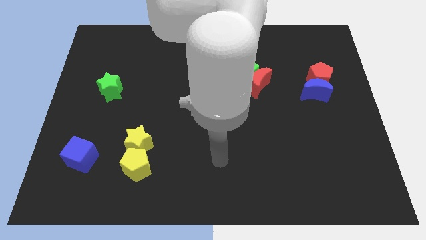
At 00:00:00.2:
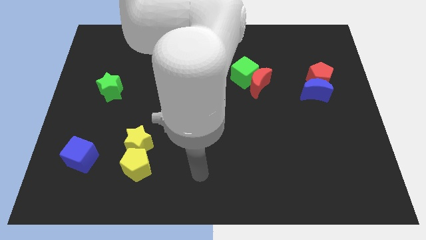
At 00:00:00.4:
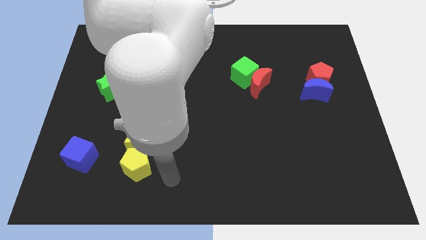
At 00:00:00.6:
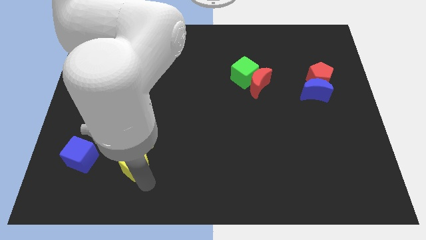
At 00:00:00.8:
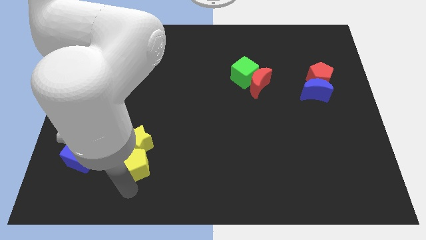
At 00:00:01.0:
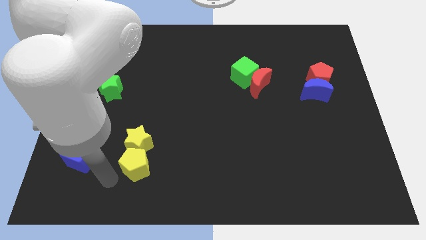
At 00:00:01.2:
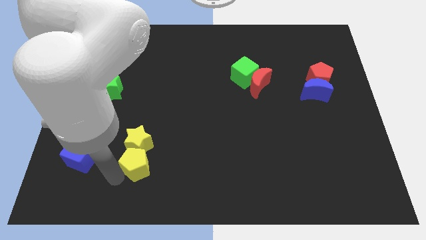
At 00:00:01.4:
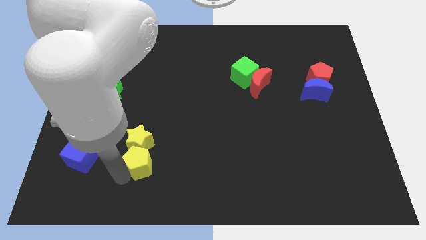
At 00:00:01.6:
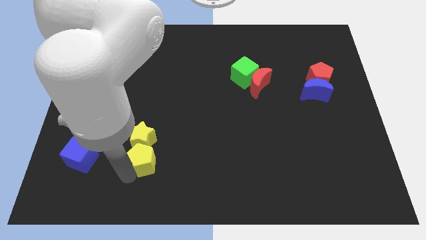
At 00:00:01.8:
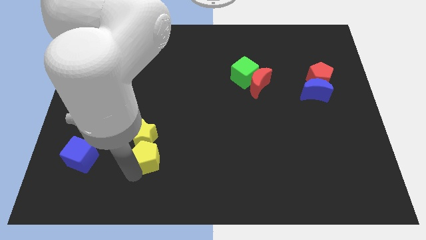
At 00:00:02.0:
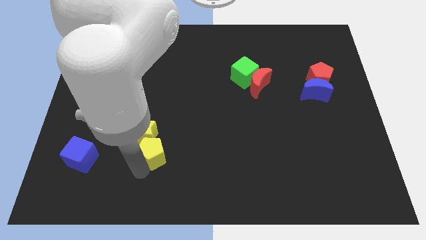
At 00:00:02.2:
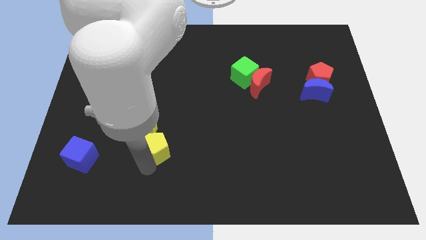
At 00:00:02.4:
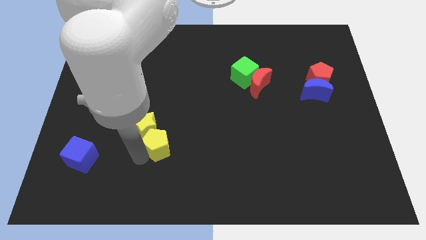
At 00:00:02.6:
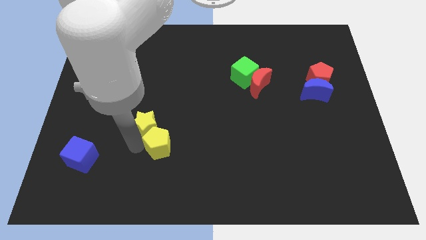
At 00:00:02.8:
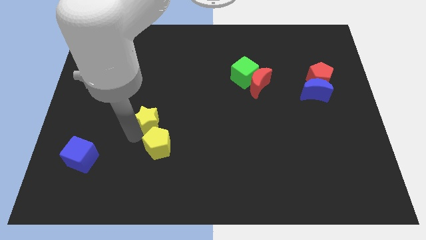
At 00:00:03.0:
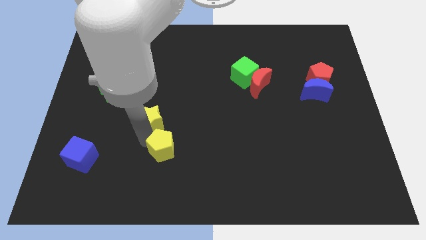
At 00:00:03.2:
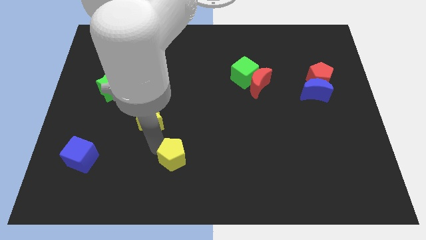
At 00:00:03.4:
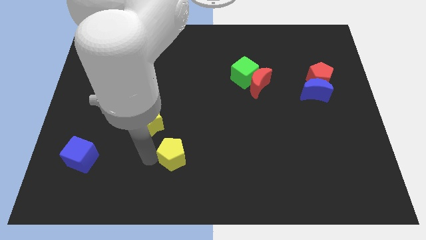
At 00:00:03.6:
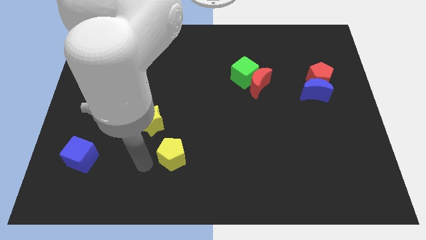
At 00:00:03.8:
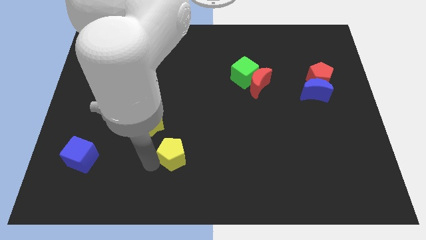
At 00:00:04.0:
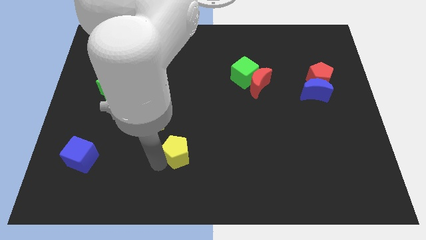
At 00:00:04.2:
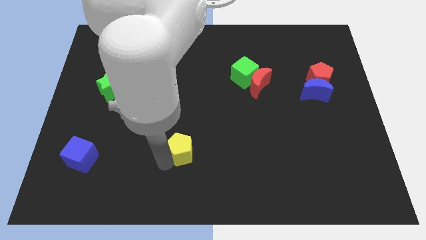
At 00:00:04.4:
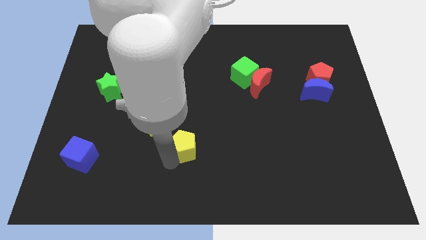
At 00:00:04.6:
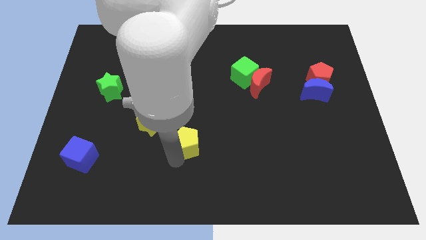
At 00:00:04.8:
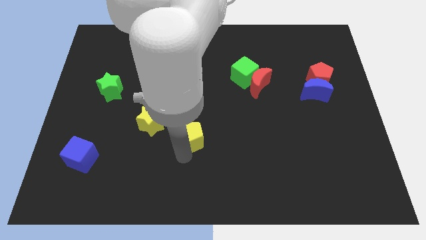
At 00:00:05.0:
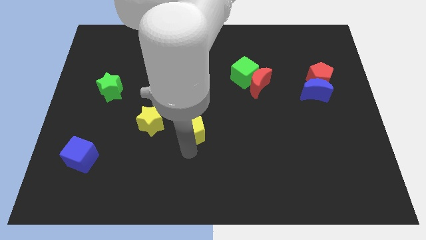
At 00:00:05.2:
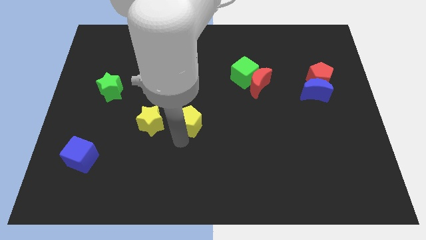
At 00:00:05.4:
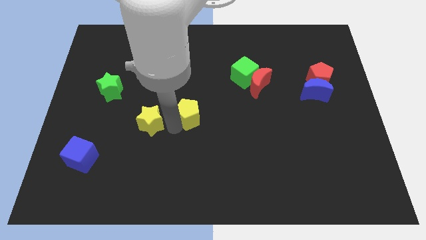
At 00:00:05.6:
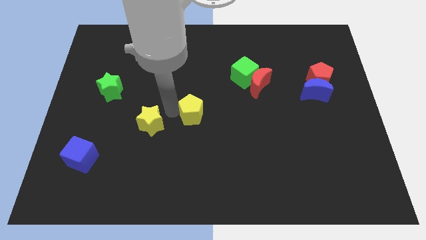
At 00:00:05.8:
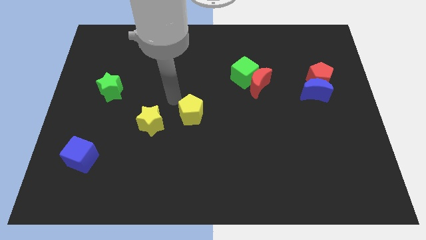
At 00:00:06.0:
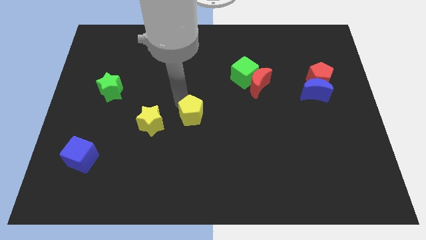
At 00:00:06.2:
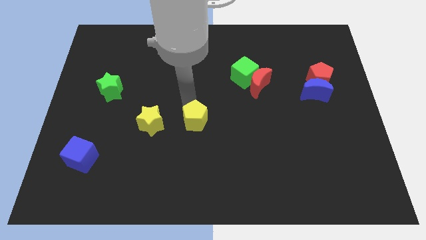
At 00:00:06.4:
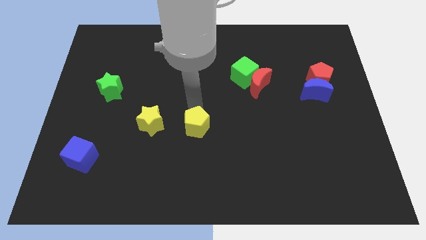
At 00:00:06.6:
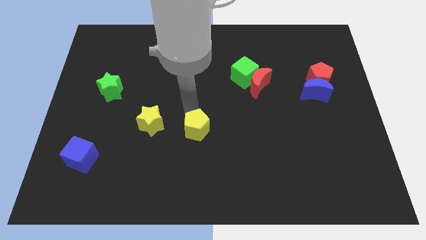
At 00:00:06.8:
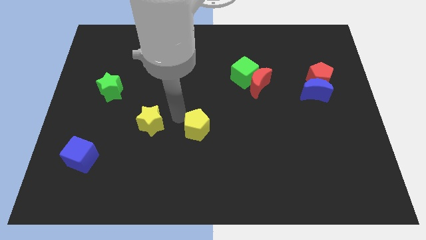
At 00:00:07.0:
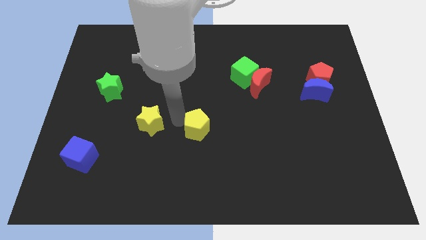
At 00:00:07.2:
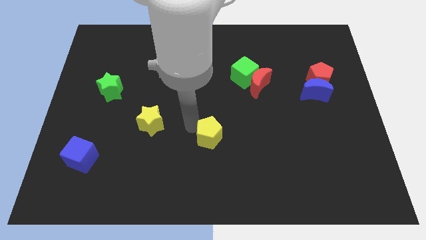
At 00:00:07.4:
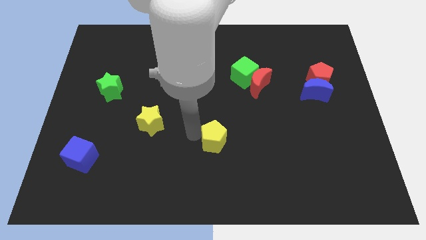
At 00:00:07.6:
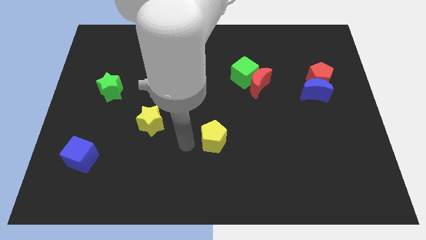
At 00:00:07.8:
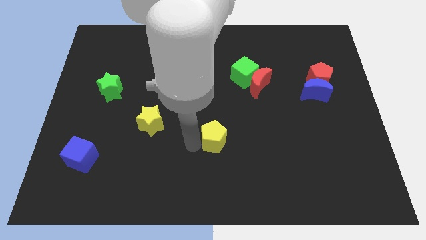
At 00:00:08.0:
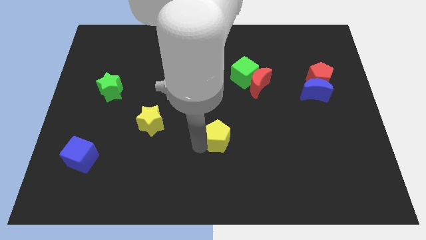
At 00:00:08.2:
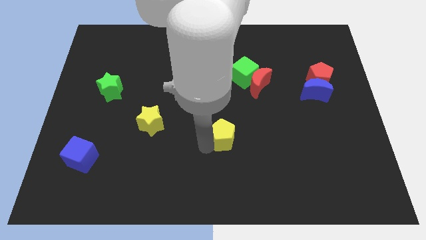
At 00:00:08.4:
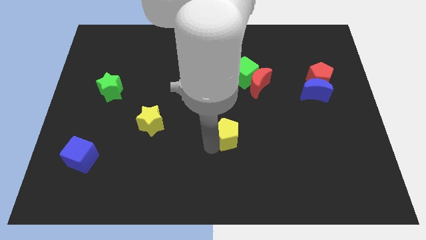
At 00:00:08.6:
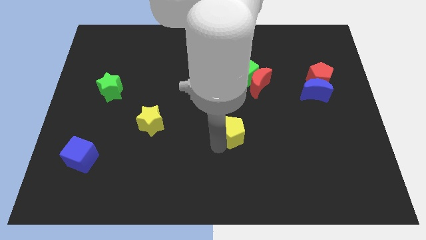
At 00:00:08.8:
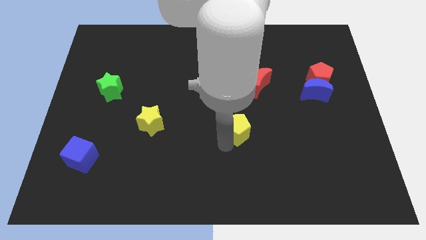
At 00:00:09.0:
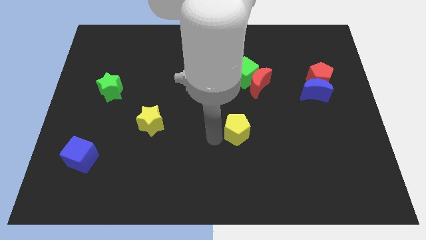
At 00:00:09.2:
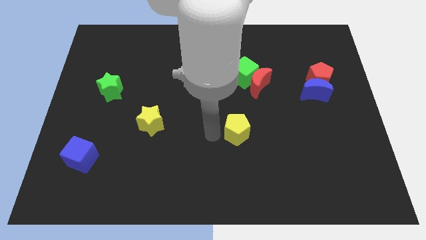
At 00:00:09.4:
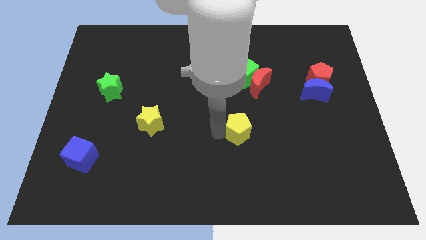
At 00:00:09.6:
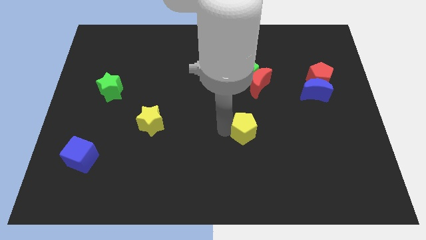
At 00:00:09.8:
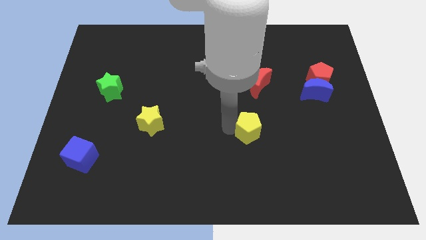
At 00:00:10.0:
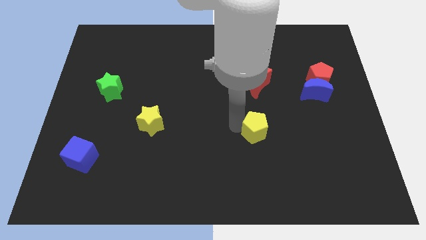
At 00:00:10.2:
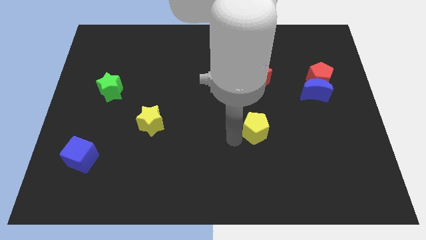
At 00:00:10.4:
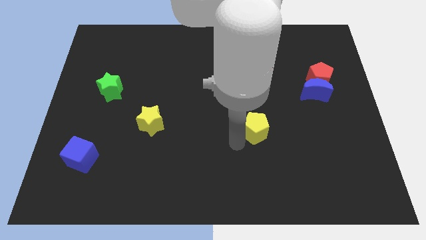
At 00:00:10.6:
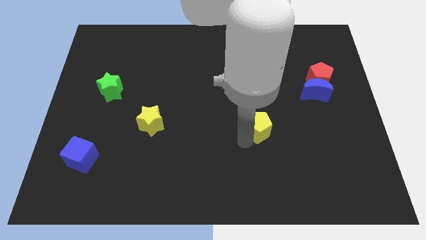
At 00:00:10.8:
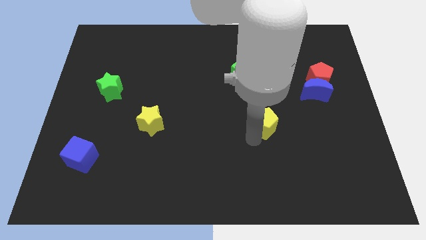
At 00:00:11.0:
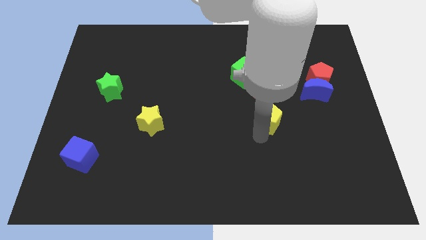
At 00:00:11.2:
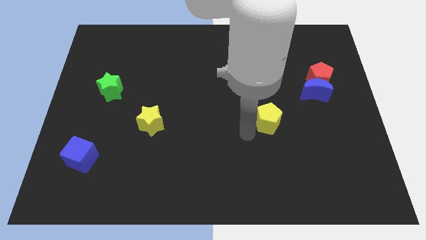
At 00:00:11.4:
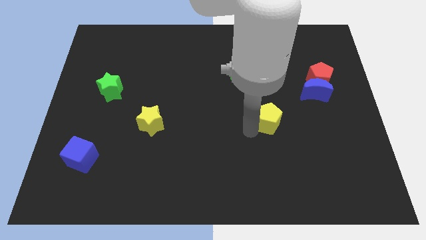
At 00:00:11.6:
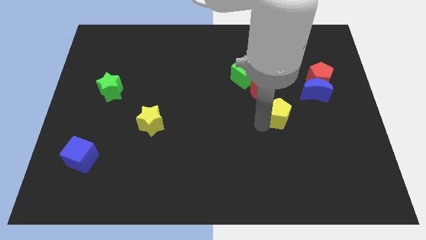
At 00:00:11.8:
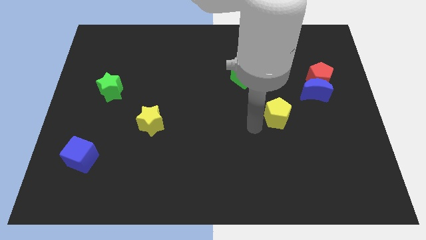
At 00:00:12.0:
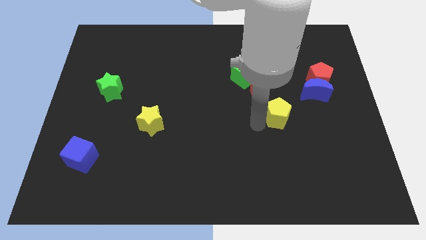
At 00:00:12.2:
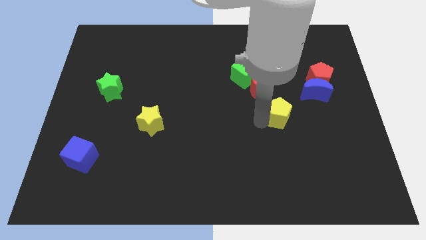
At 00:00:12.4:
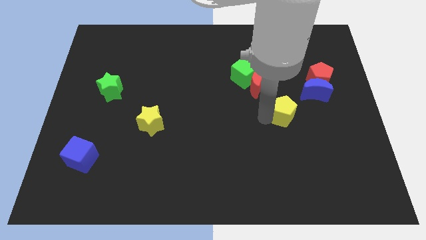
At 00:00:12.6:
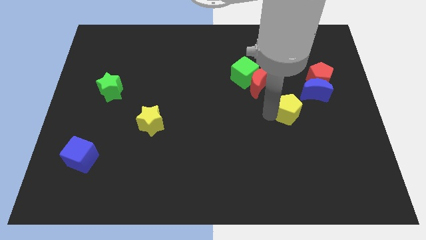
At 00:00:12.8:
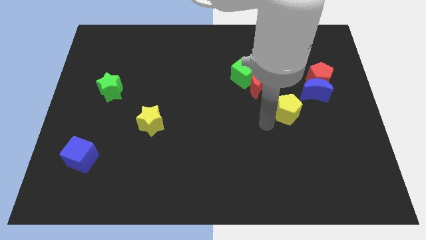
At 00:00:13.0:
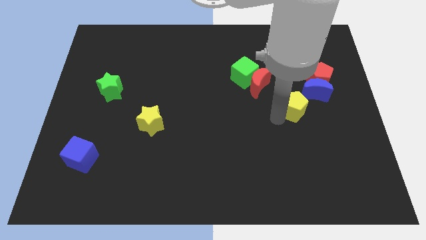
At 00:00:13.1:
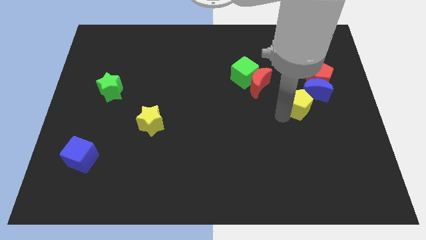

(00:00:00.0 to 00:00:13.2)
move the yellow pentagon to the blue moon

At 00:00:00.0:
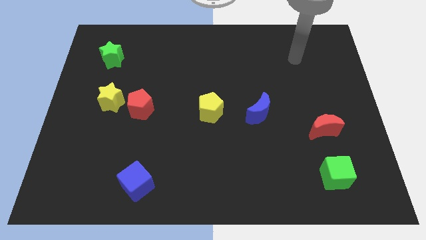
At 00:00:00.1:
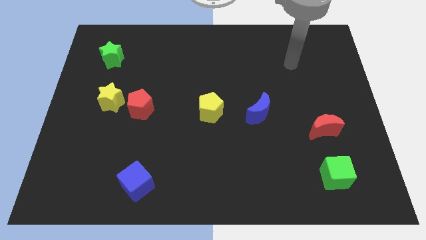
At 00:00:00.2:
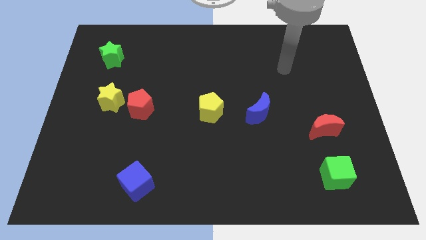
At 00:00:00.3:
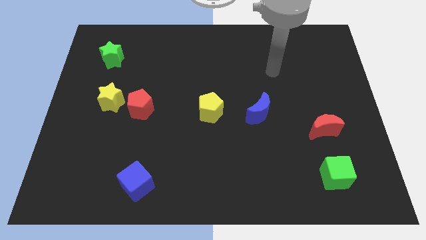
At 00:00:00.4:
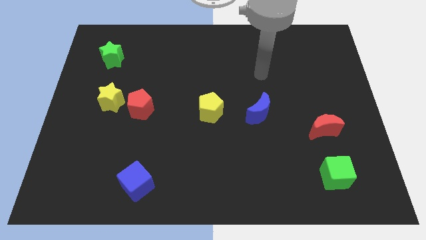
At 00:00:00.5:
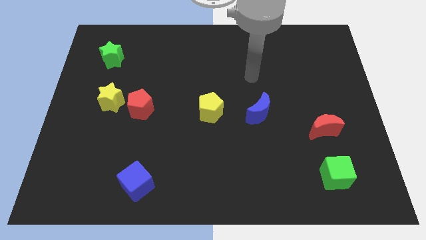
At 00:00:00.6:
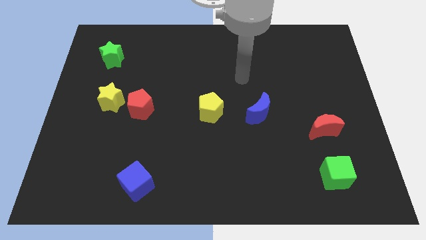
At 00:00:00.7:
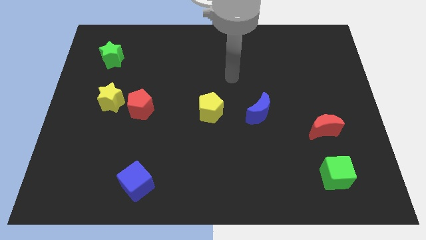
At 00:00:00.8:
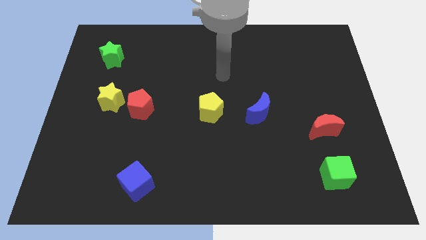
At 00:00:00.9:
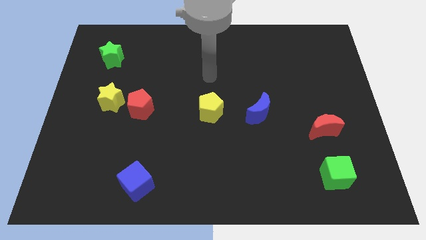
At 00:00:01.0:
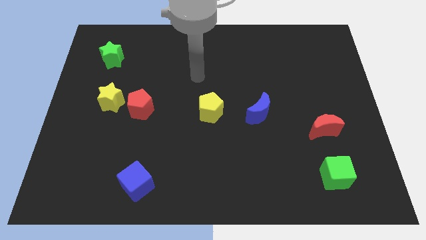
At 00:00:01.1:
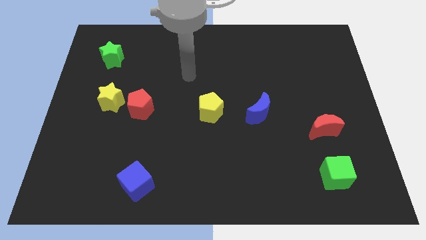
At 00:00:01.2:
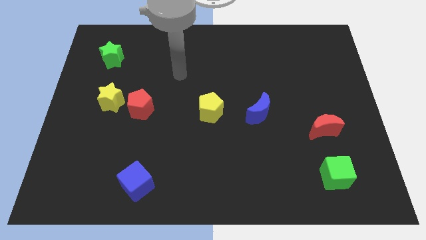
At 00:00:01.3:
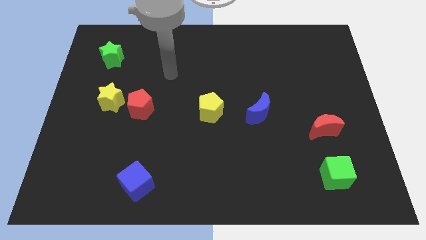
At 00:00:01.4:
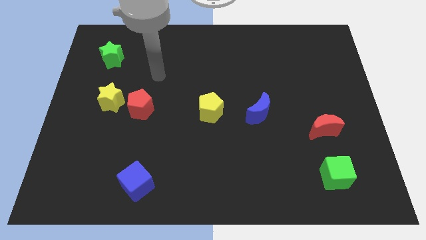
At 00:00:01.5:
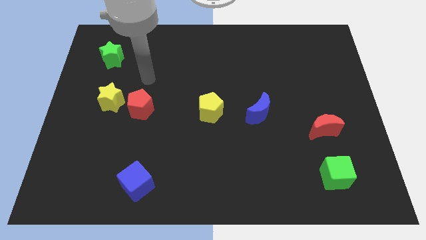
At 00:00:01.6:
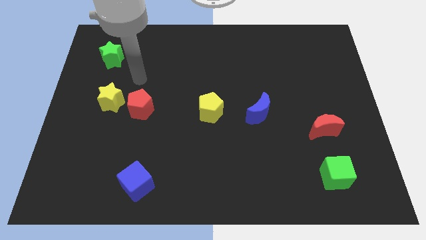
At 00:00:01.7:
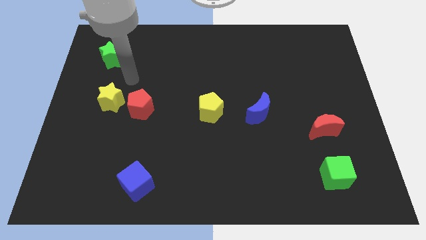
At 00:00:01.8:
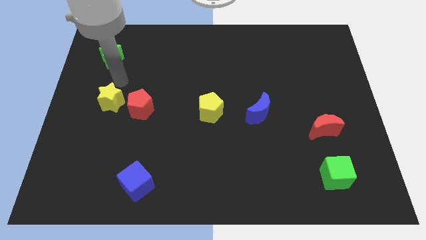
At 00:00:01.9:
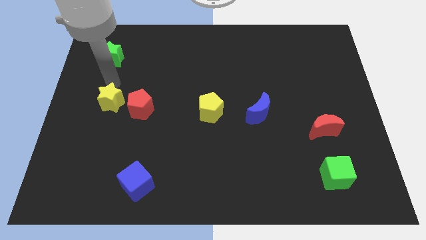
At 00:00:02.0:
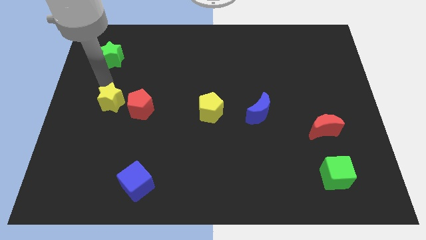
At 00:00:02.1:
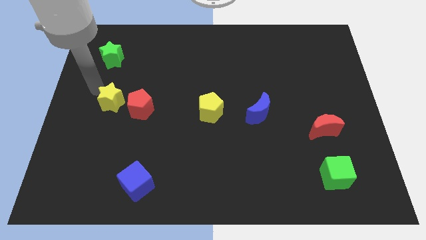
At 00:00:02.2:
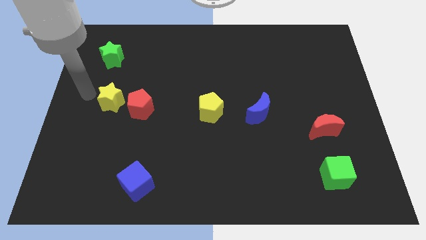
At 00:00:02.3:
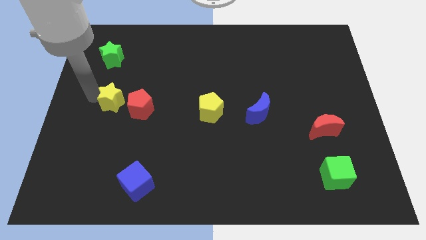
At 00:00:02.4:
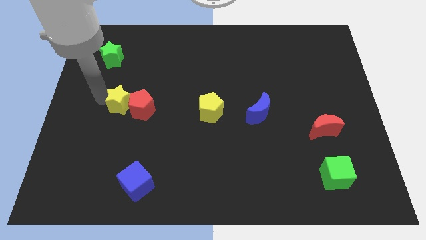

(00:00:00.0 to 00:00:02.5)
put the yellow star next to the red pentagon
